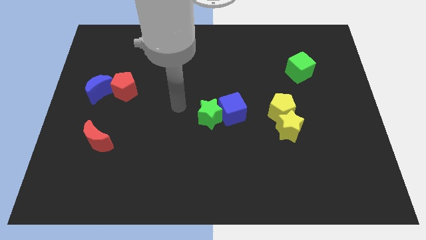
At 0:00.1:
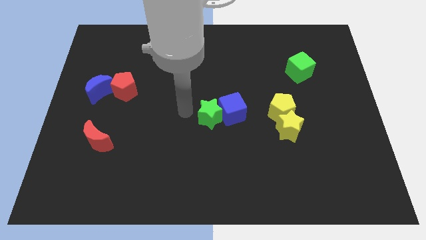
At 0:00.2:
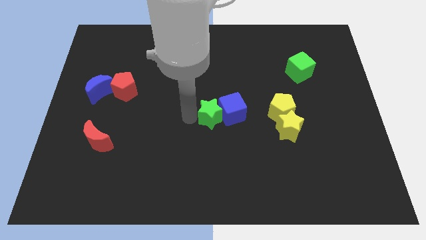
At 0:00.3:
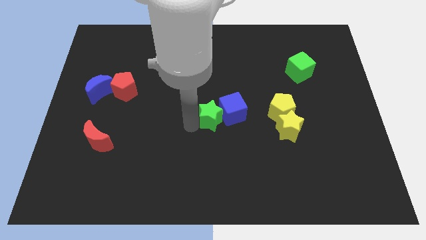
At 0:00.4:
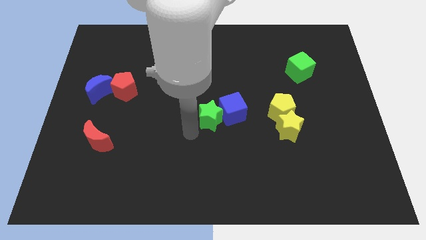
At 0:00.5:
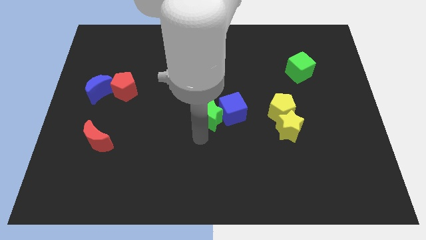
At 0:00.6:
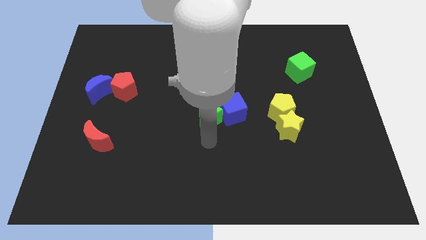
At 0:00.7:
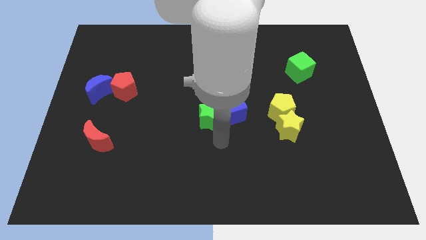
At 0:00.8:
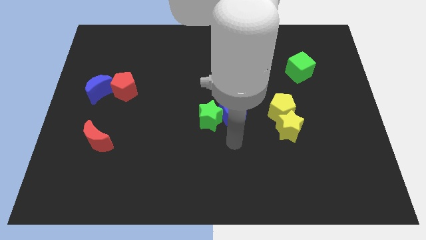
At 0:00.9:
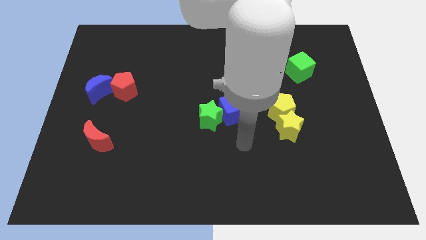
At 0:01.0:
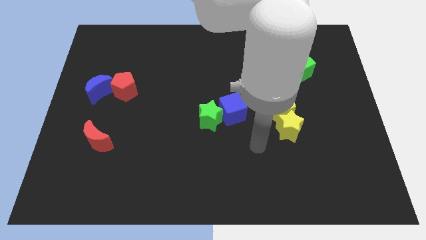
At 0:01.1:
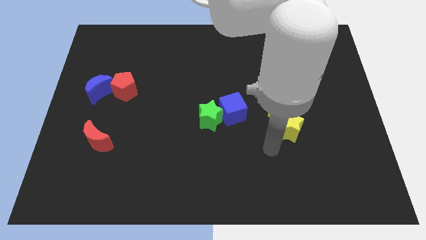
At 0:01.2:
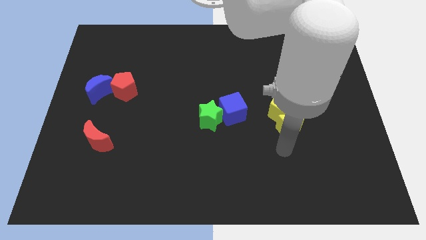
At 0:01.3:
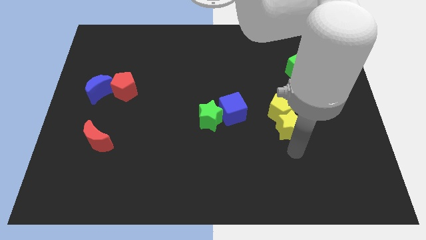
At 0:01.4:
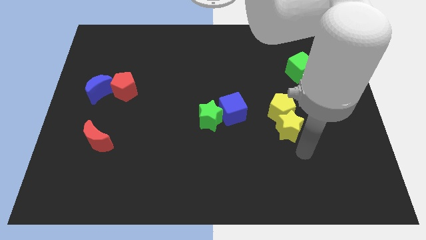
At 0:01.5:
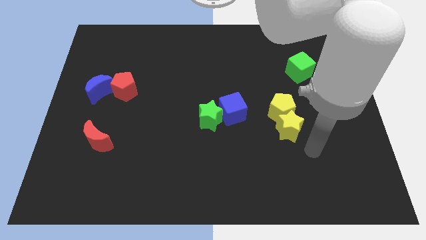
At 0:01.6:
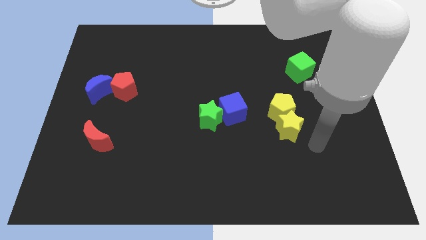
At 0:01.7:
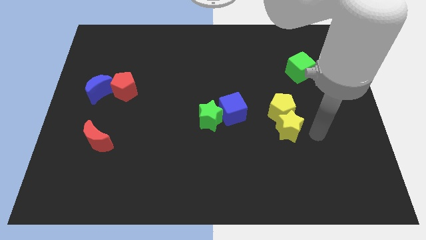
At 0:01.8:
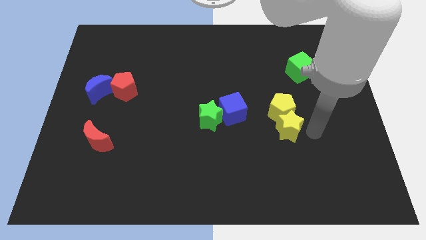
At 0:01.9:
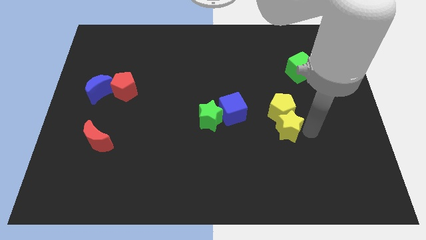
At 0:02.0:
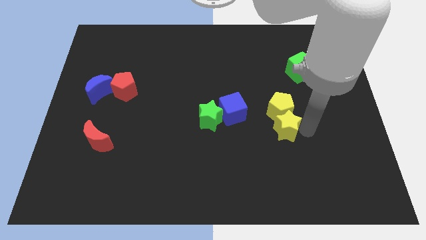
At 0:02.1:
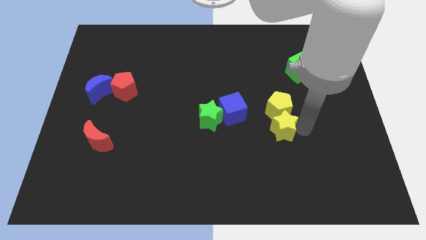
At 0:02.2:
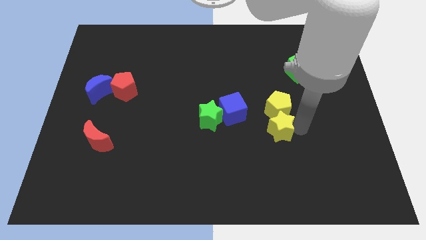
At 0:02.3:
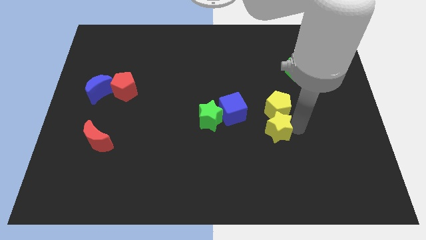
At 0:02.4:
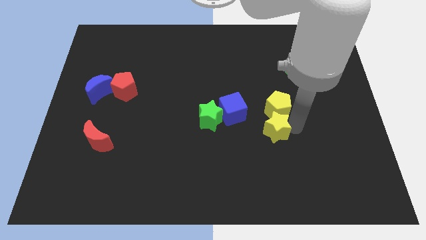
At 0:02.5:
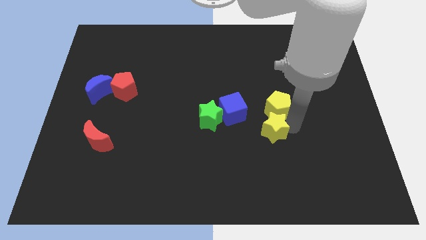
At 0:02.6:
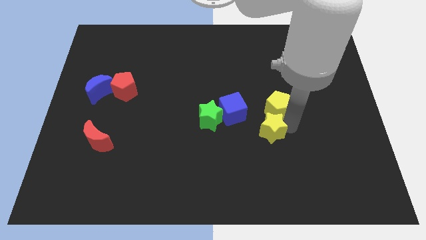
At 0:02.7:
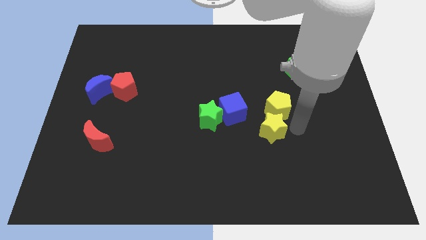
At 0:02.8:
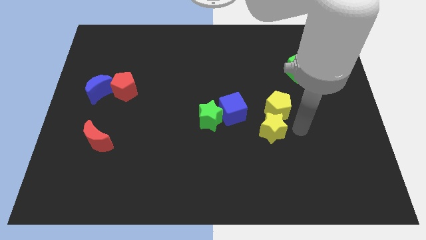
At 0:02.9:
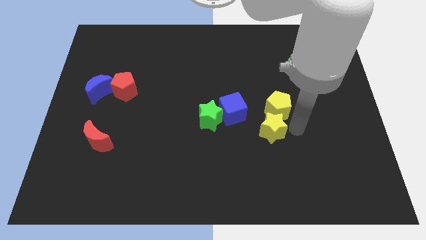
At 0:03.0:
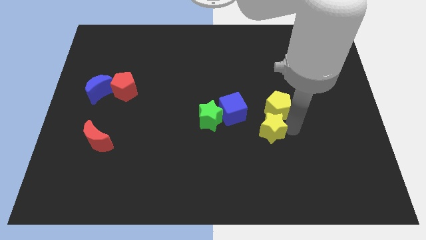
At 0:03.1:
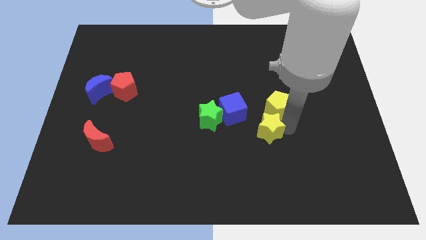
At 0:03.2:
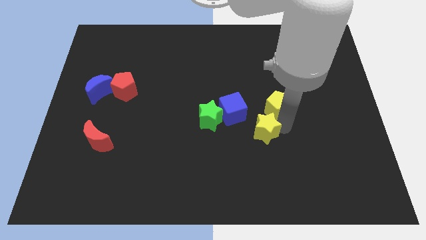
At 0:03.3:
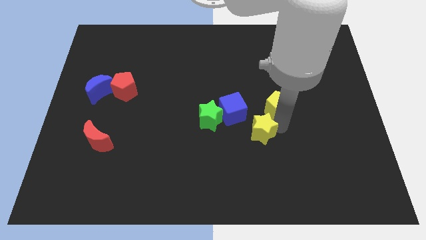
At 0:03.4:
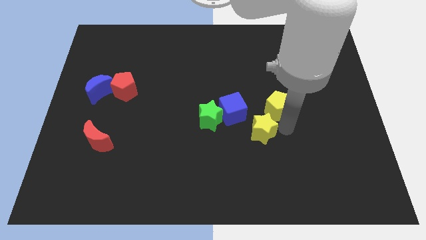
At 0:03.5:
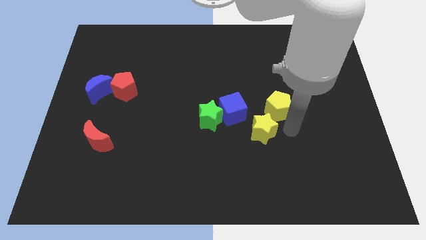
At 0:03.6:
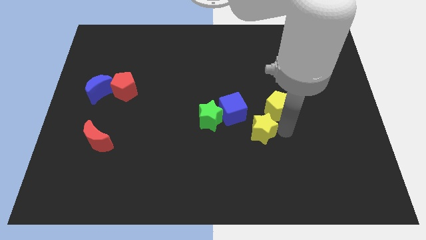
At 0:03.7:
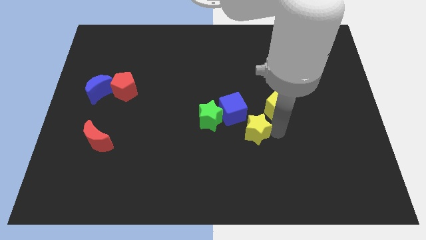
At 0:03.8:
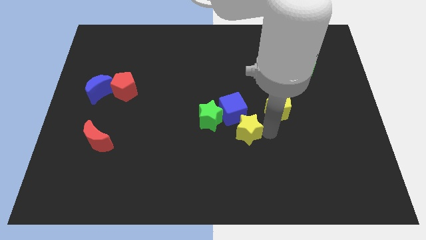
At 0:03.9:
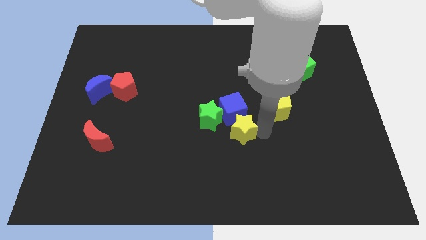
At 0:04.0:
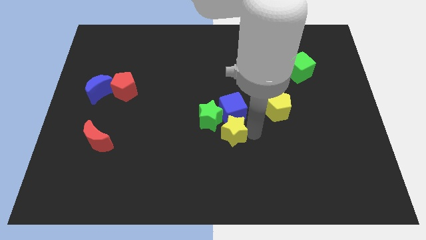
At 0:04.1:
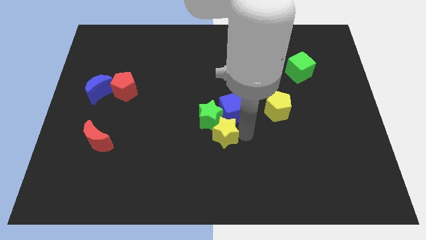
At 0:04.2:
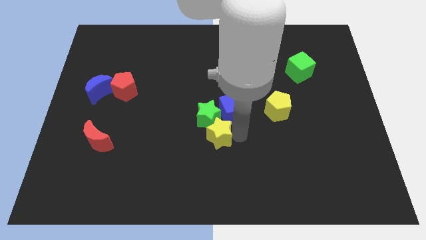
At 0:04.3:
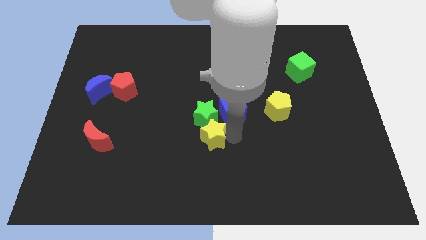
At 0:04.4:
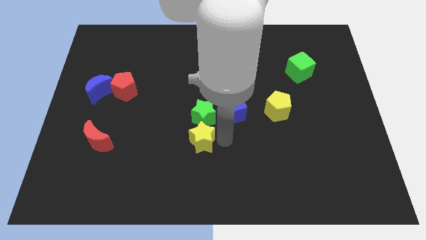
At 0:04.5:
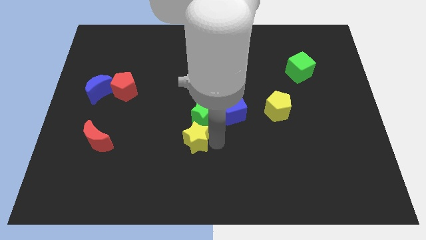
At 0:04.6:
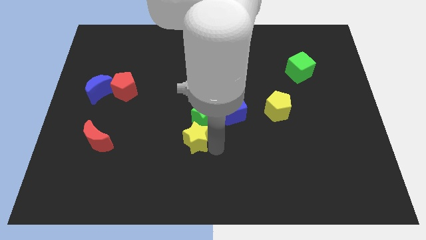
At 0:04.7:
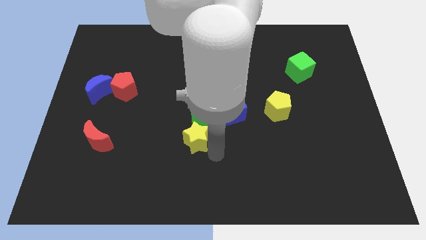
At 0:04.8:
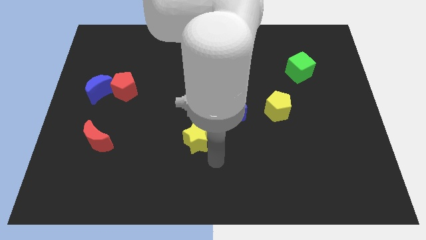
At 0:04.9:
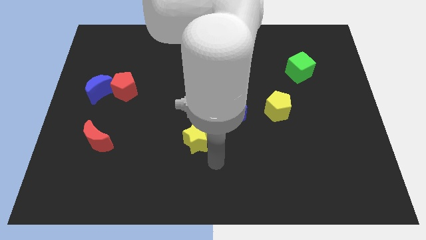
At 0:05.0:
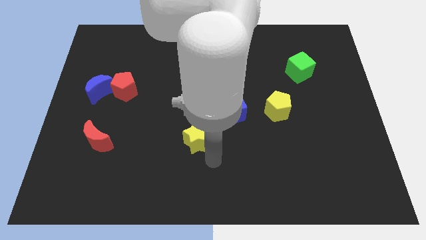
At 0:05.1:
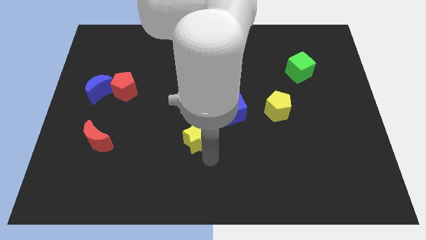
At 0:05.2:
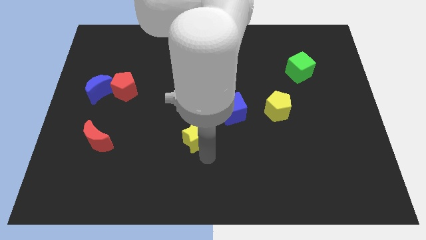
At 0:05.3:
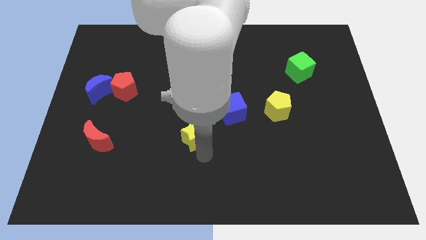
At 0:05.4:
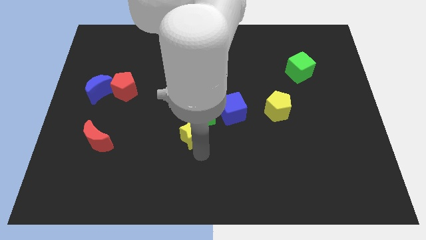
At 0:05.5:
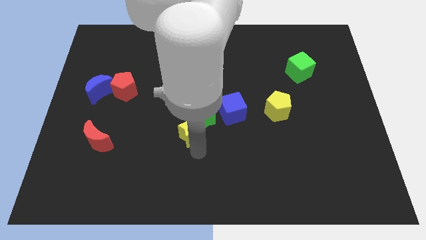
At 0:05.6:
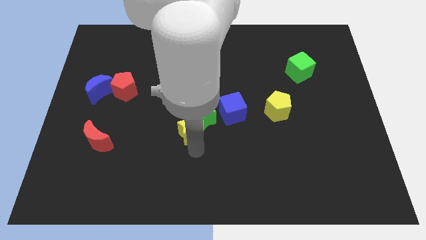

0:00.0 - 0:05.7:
put the yellow star just left of the green star

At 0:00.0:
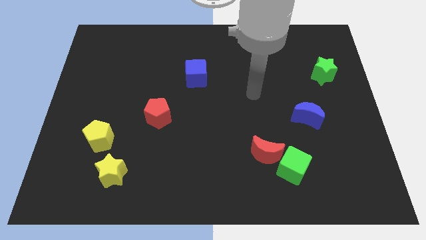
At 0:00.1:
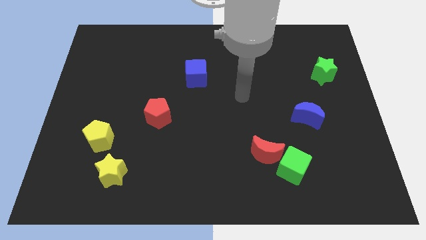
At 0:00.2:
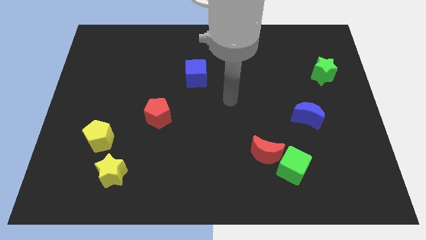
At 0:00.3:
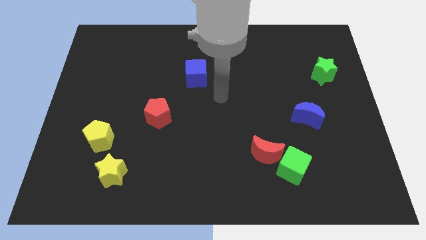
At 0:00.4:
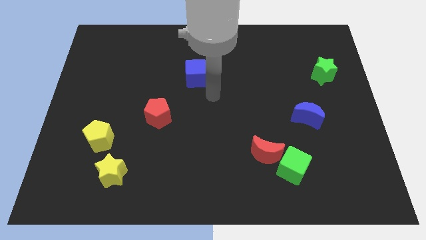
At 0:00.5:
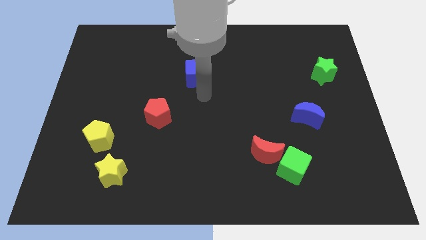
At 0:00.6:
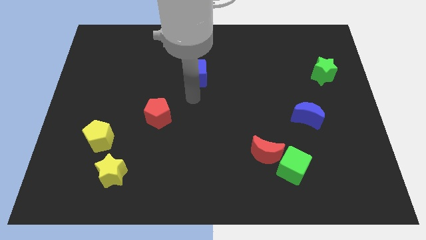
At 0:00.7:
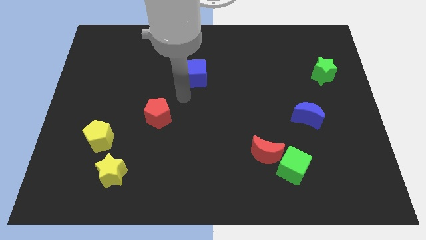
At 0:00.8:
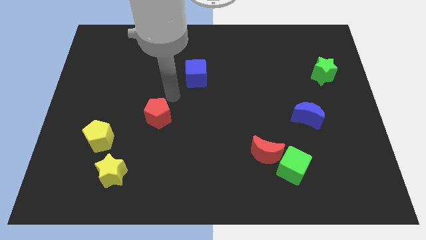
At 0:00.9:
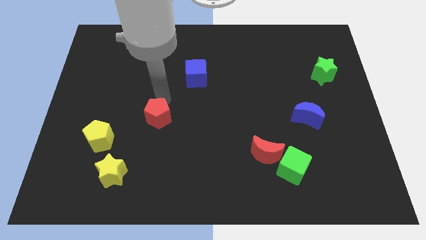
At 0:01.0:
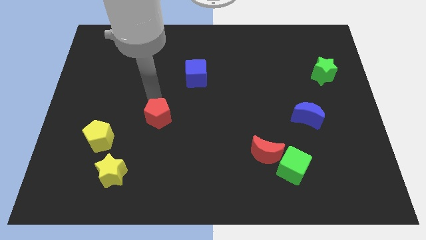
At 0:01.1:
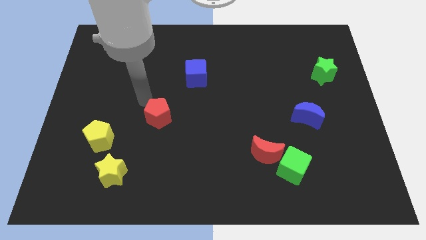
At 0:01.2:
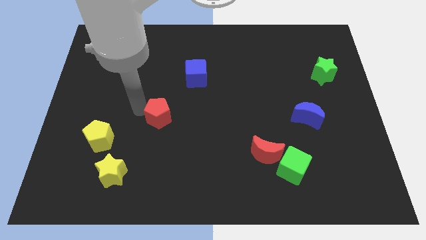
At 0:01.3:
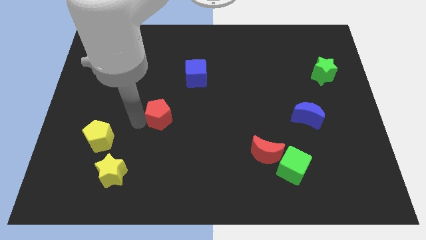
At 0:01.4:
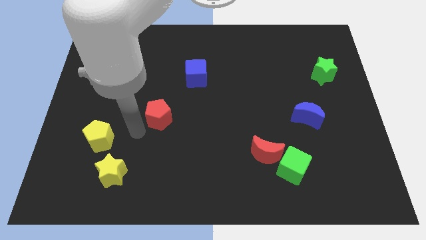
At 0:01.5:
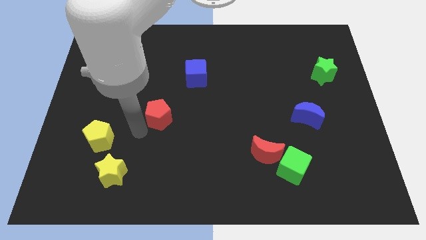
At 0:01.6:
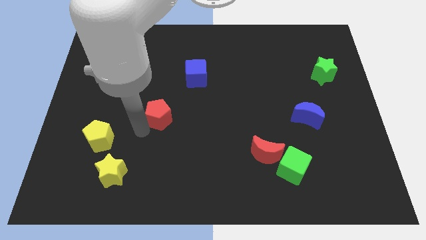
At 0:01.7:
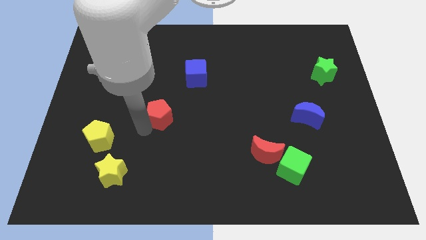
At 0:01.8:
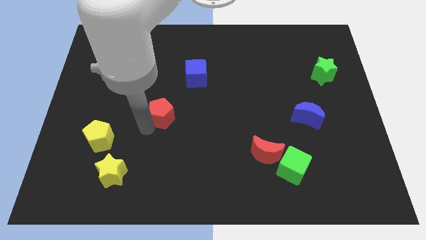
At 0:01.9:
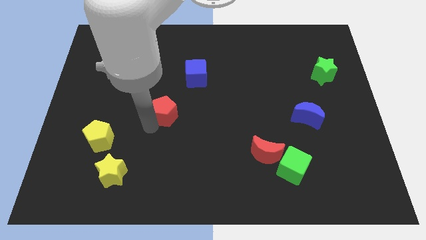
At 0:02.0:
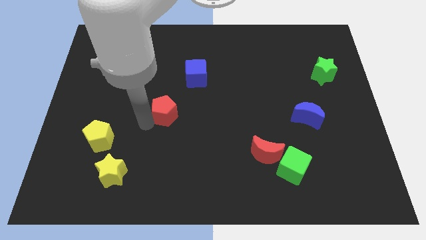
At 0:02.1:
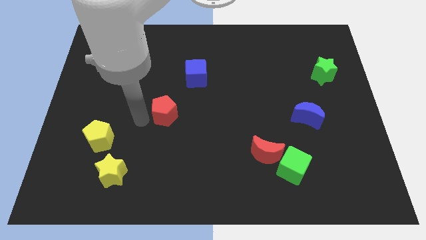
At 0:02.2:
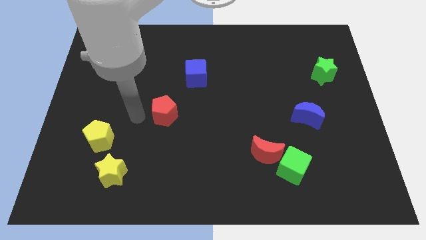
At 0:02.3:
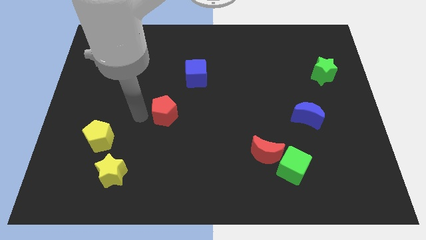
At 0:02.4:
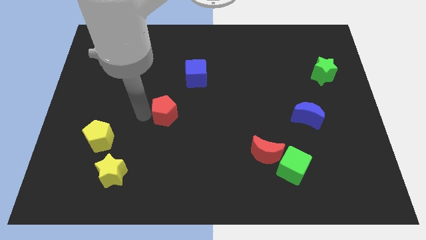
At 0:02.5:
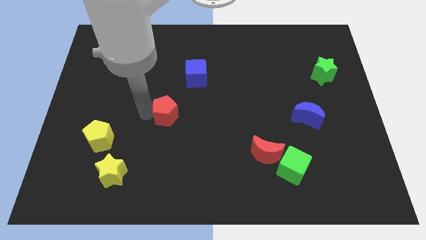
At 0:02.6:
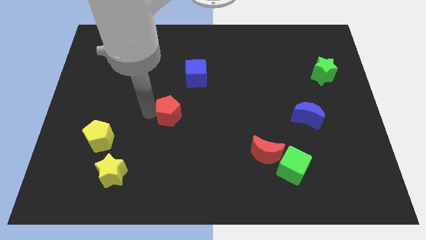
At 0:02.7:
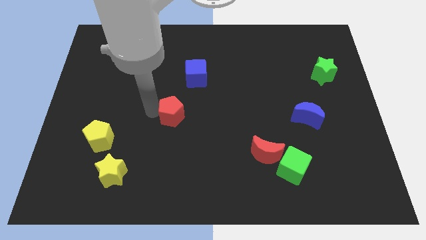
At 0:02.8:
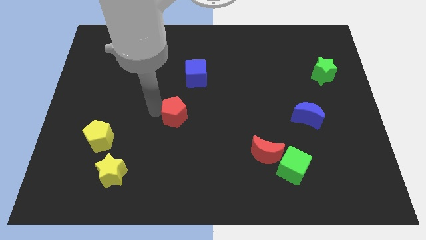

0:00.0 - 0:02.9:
put the red pentagon to the bottom side of the blue cube
